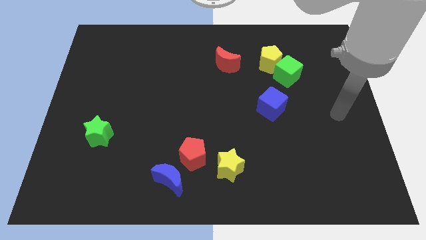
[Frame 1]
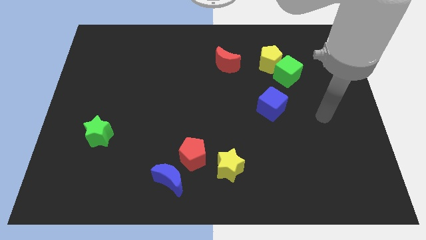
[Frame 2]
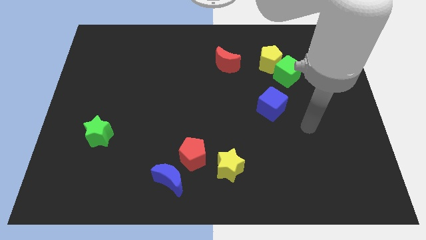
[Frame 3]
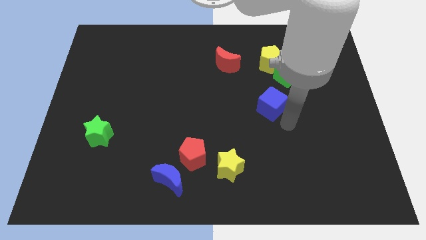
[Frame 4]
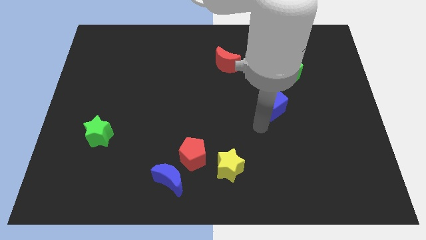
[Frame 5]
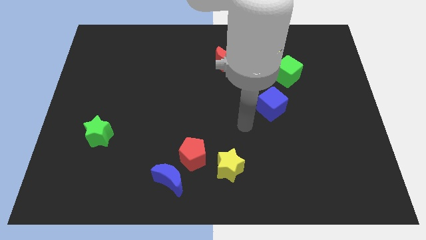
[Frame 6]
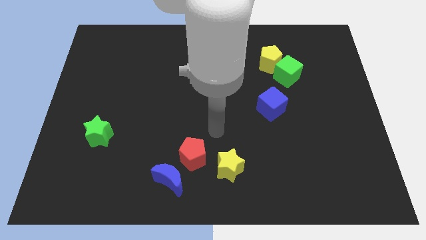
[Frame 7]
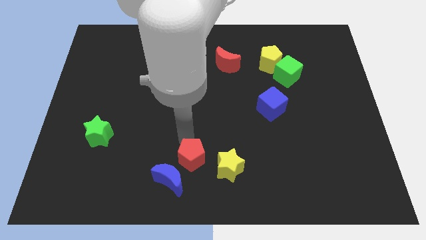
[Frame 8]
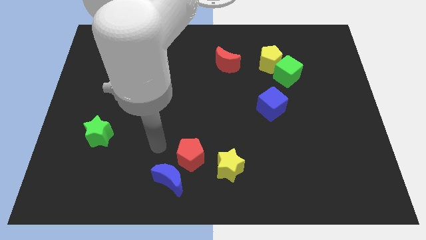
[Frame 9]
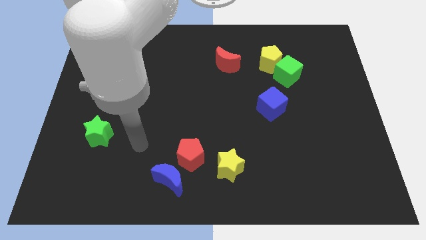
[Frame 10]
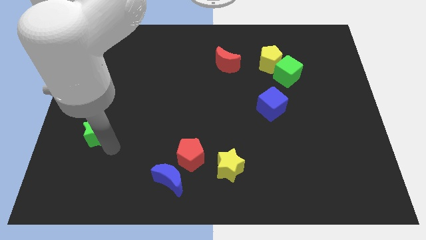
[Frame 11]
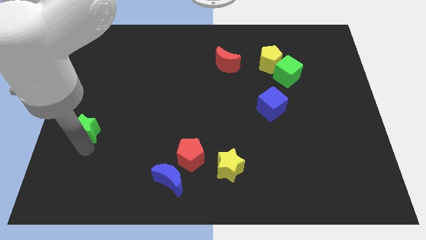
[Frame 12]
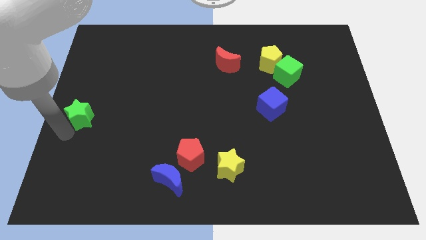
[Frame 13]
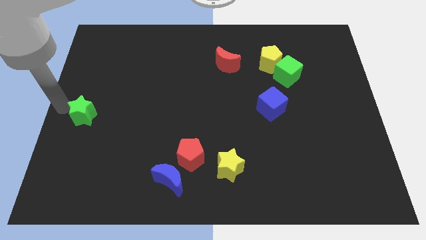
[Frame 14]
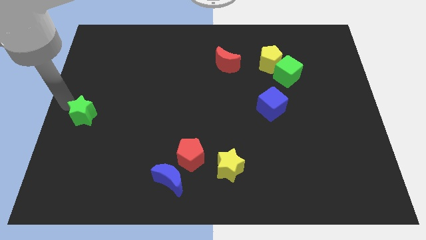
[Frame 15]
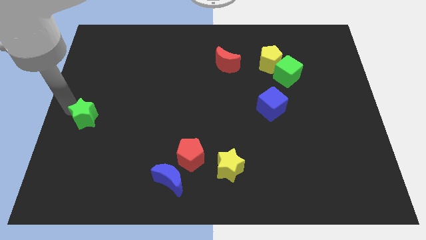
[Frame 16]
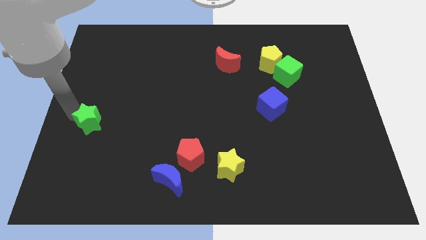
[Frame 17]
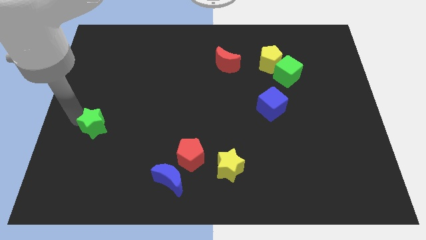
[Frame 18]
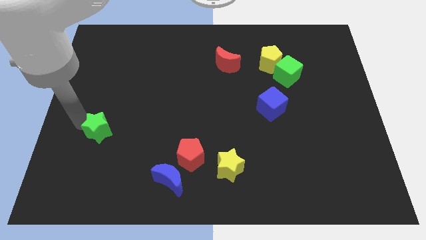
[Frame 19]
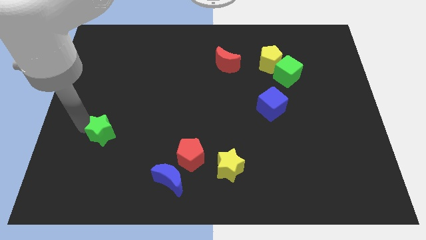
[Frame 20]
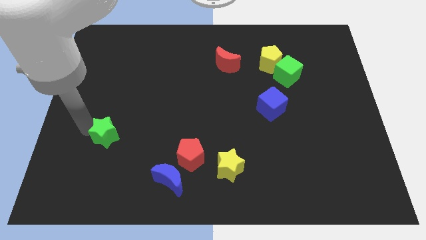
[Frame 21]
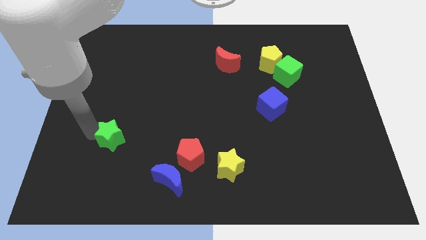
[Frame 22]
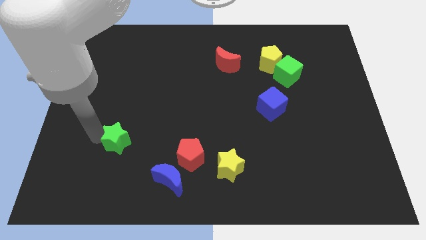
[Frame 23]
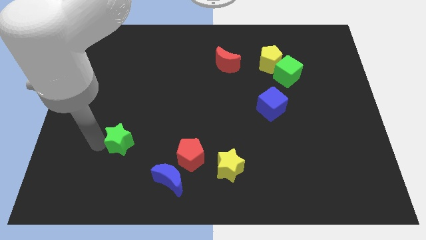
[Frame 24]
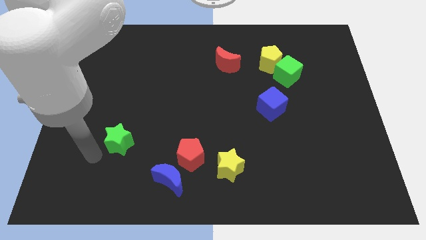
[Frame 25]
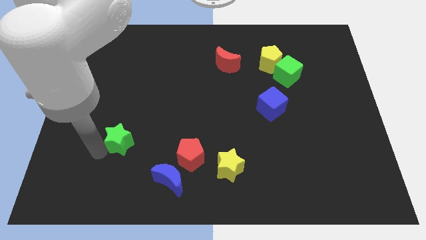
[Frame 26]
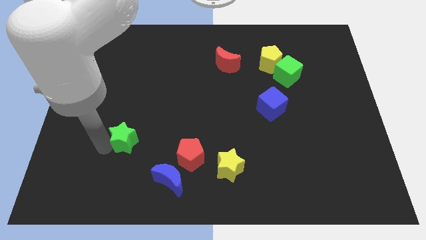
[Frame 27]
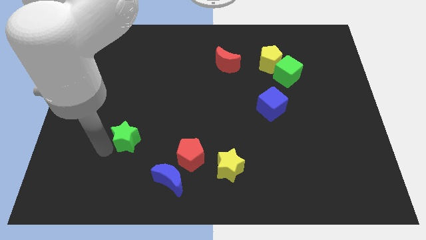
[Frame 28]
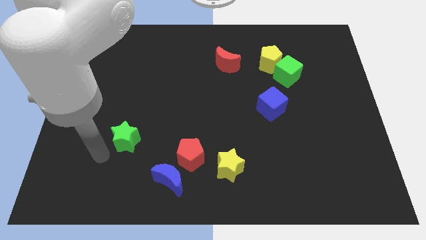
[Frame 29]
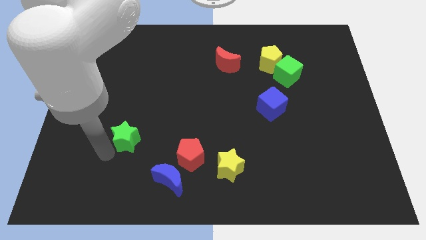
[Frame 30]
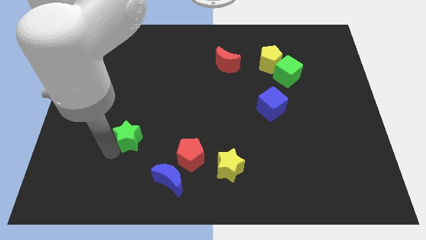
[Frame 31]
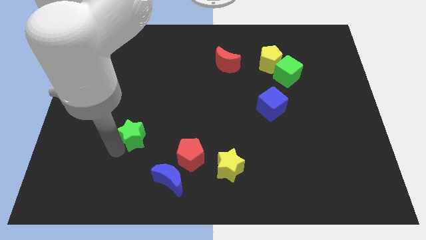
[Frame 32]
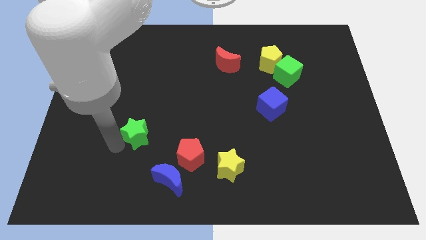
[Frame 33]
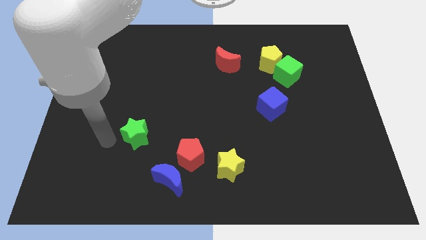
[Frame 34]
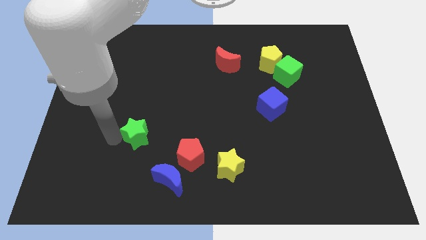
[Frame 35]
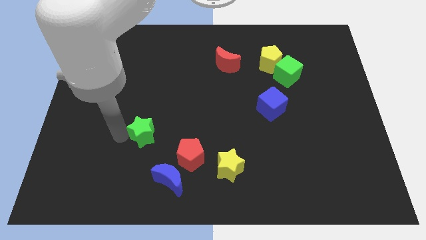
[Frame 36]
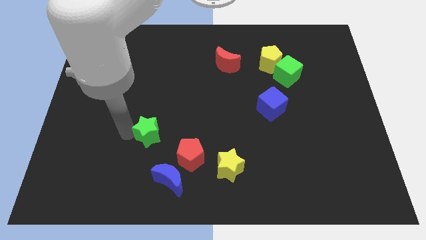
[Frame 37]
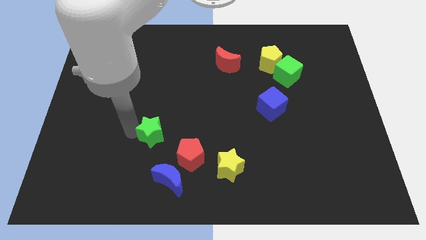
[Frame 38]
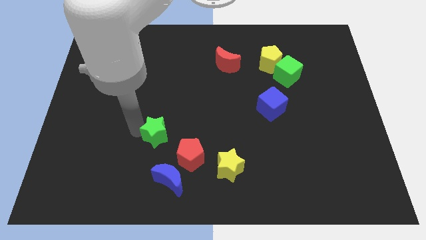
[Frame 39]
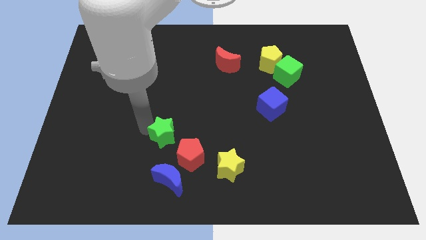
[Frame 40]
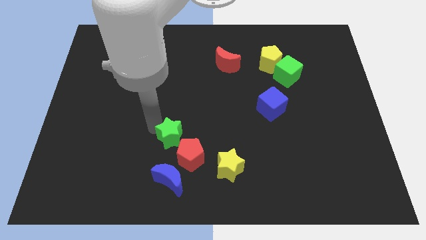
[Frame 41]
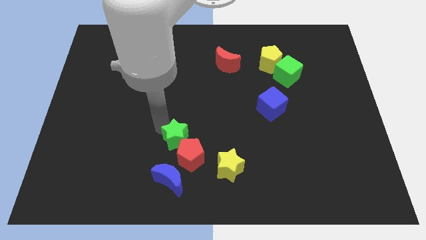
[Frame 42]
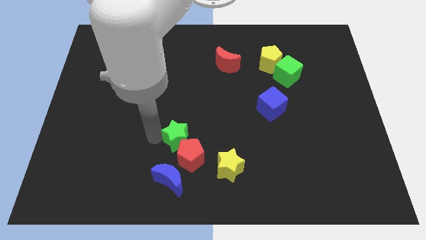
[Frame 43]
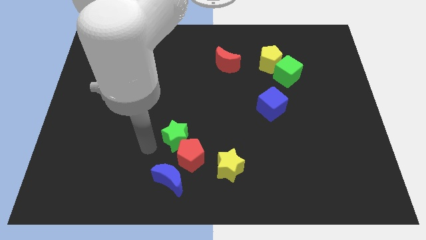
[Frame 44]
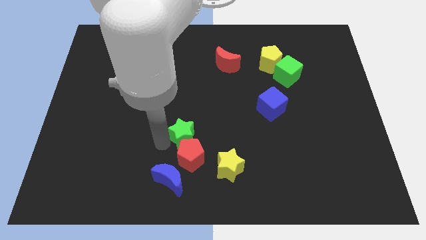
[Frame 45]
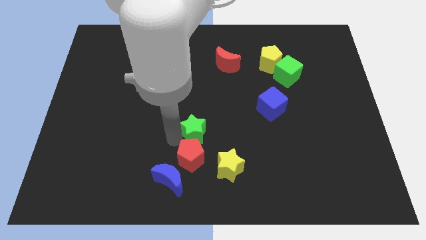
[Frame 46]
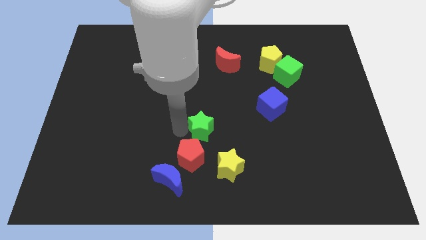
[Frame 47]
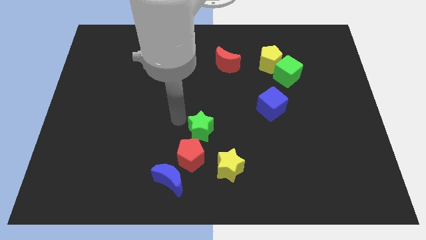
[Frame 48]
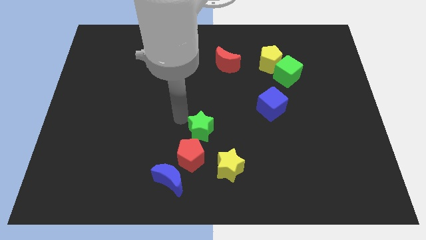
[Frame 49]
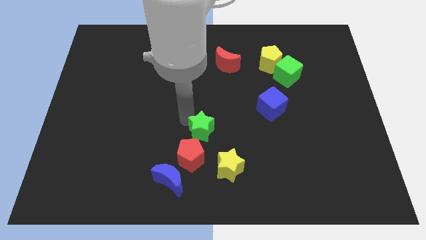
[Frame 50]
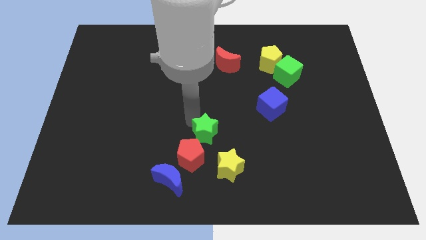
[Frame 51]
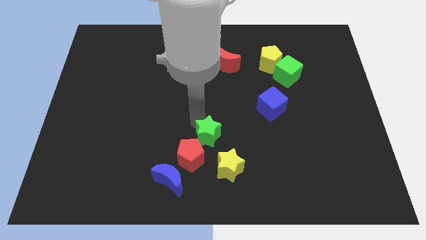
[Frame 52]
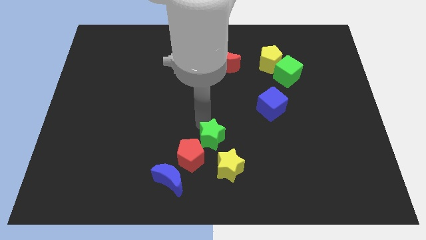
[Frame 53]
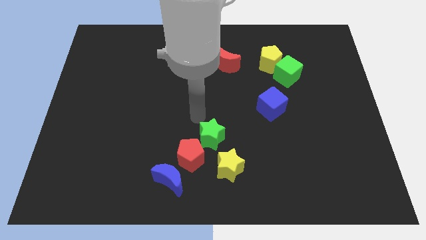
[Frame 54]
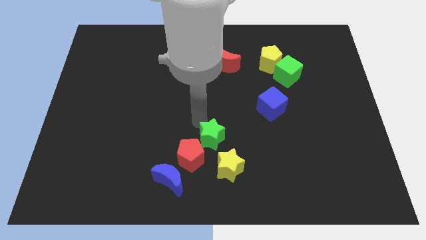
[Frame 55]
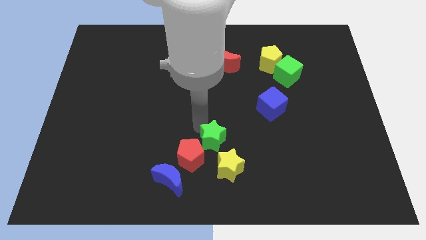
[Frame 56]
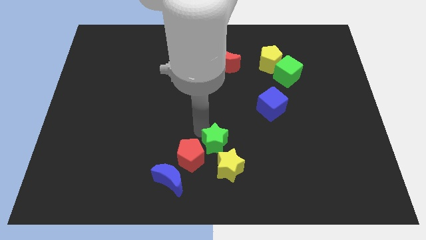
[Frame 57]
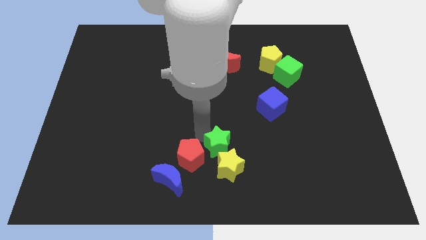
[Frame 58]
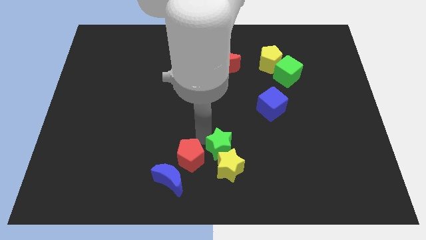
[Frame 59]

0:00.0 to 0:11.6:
slide the green star next to the yellow star
